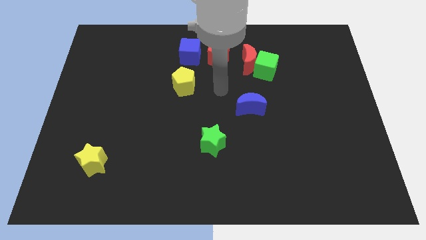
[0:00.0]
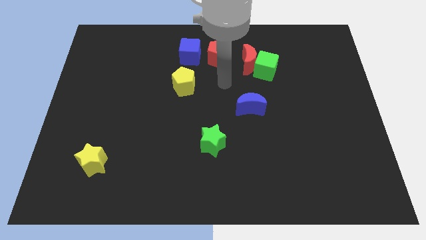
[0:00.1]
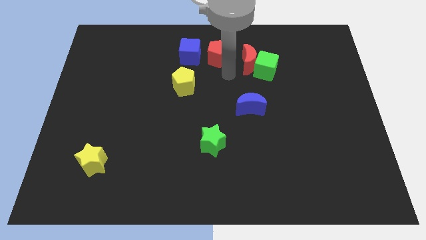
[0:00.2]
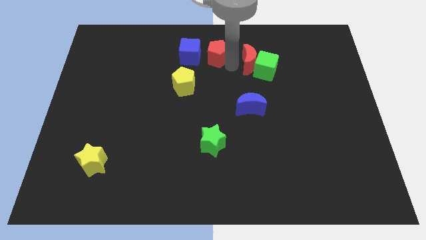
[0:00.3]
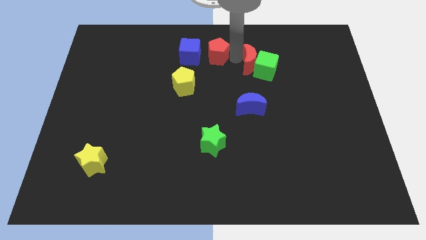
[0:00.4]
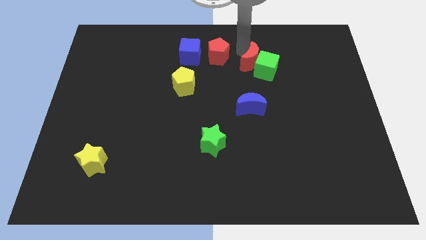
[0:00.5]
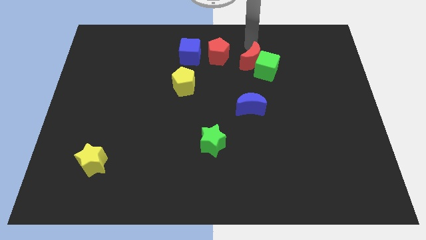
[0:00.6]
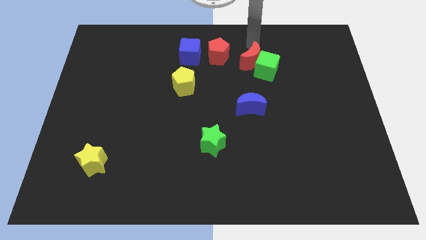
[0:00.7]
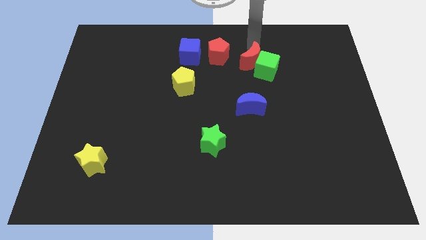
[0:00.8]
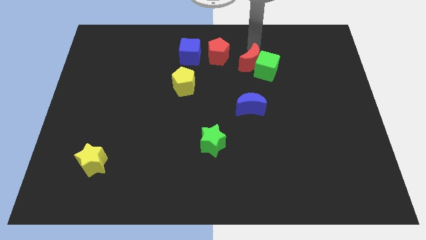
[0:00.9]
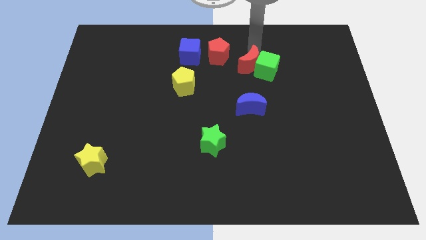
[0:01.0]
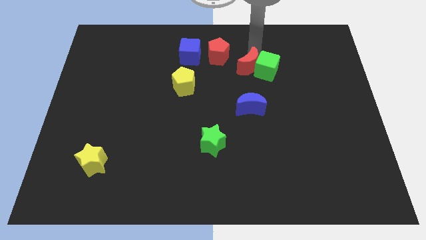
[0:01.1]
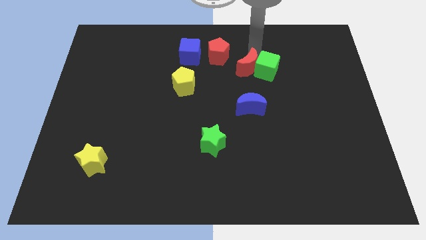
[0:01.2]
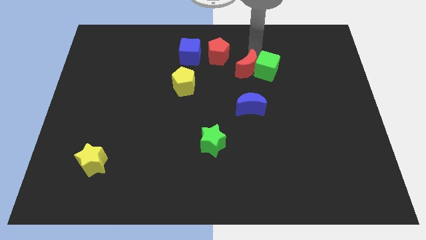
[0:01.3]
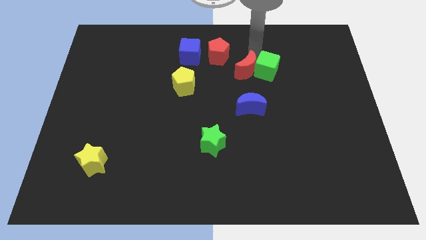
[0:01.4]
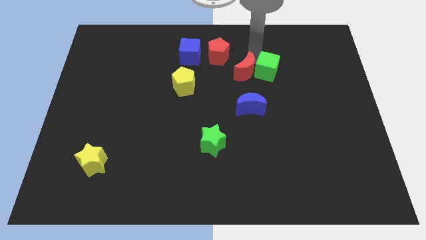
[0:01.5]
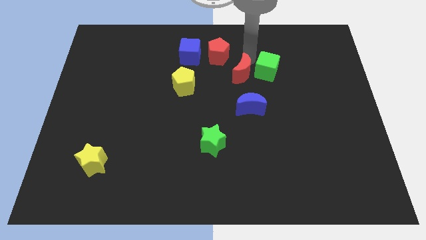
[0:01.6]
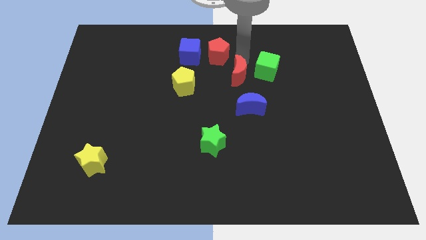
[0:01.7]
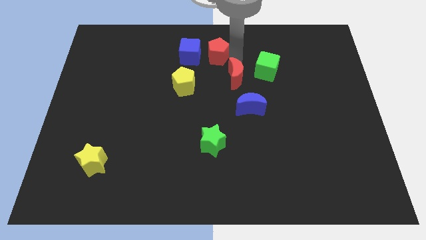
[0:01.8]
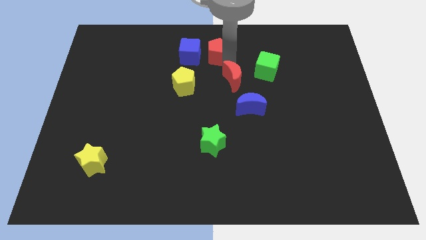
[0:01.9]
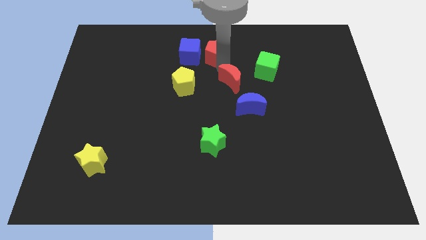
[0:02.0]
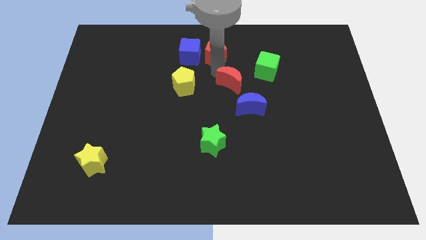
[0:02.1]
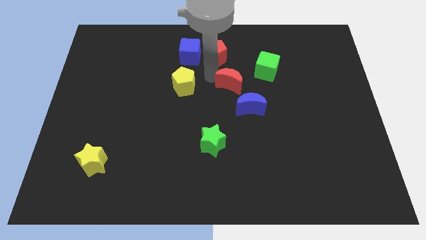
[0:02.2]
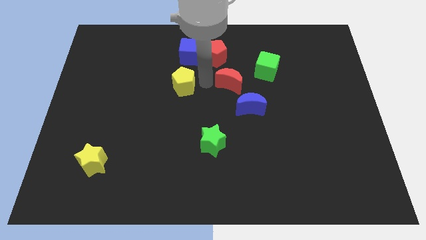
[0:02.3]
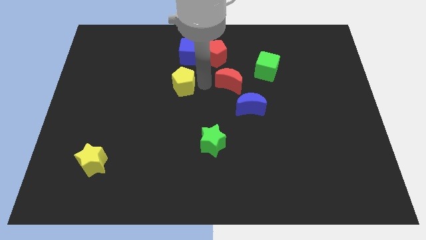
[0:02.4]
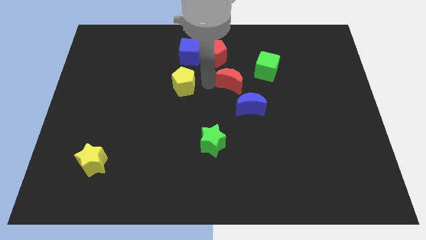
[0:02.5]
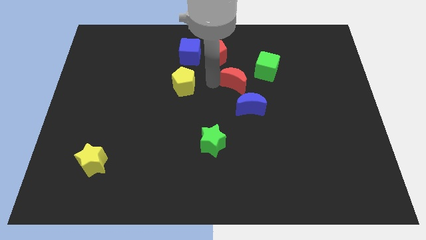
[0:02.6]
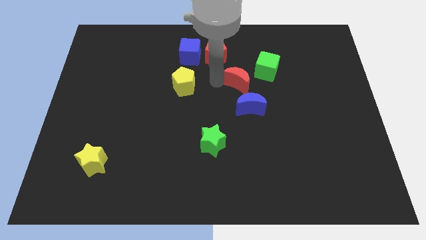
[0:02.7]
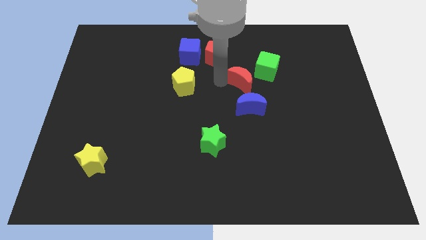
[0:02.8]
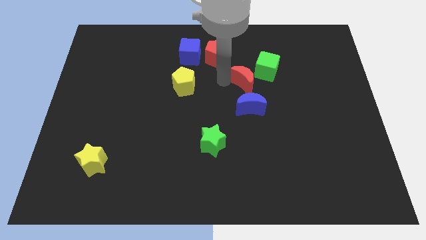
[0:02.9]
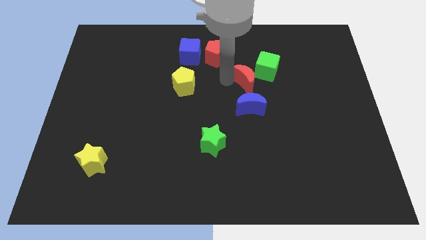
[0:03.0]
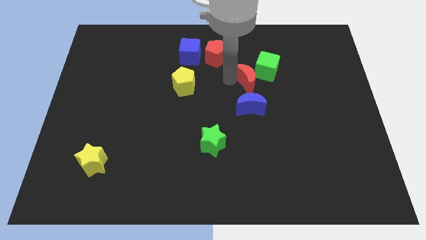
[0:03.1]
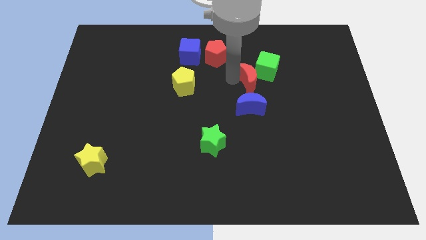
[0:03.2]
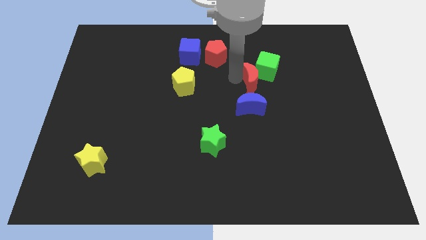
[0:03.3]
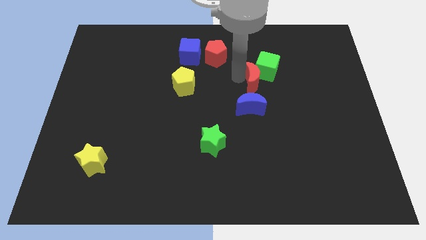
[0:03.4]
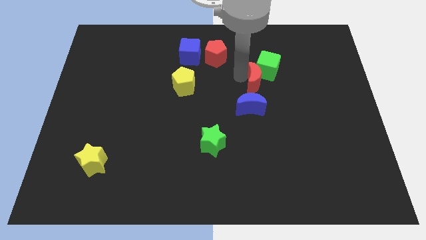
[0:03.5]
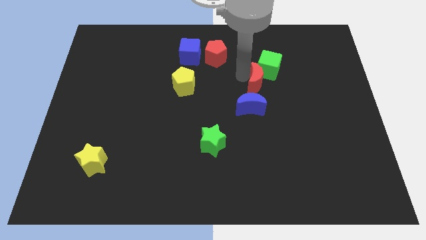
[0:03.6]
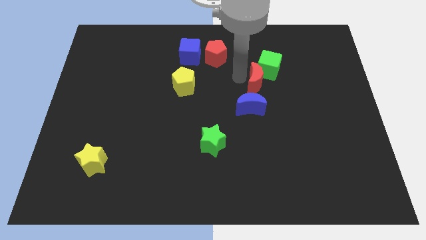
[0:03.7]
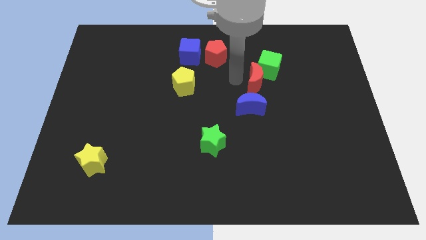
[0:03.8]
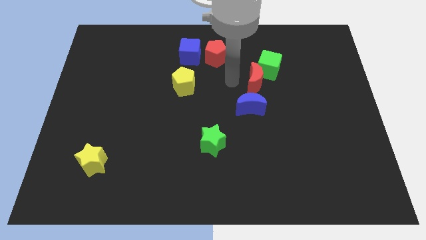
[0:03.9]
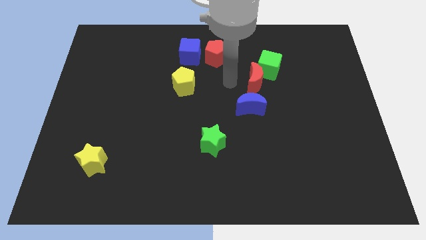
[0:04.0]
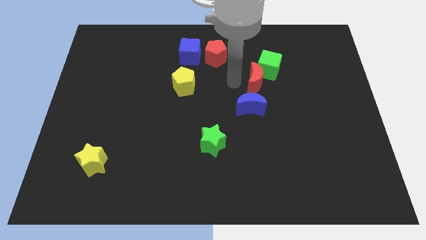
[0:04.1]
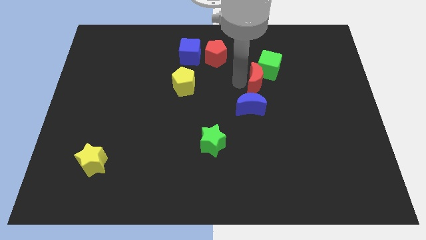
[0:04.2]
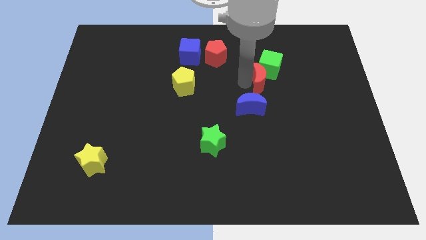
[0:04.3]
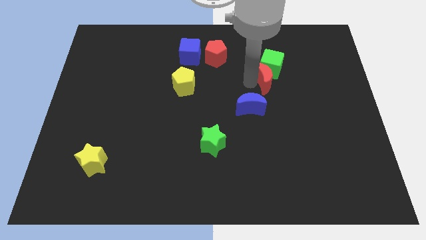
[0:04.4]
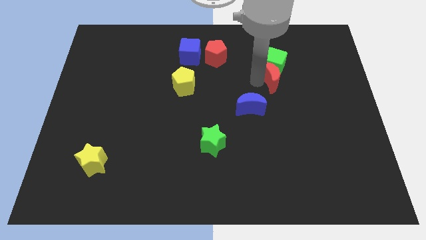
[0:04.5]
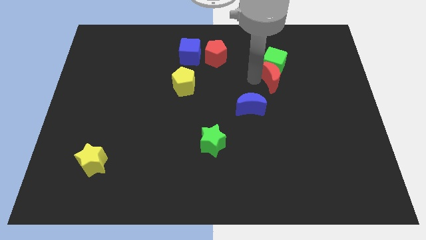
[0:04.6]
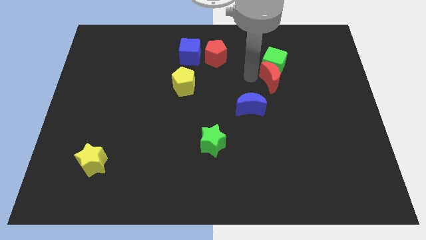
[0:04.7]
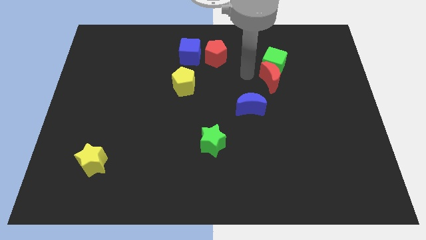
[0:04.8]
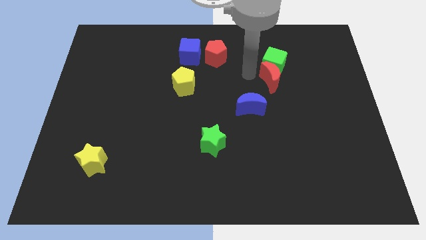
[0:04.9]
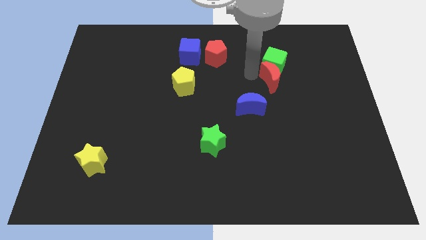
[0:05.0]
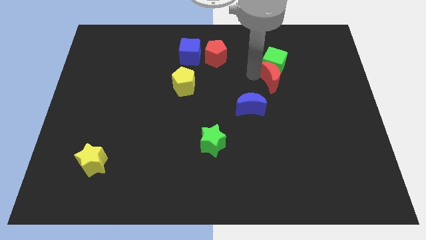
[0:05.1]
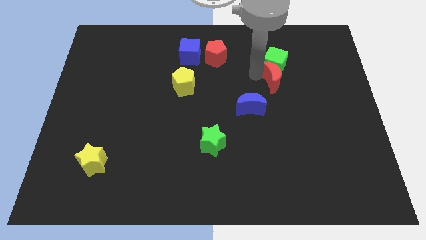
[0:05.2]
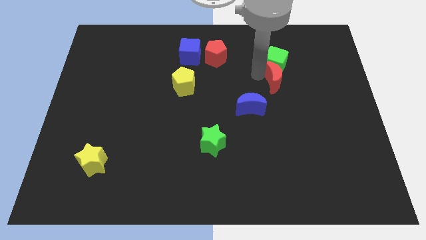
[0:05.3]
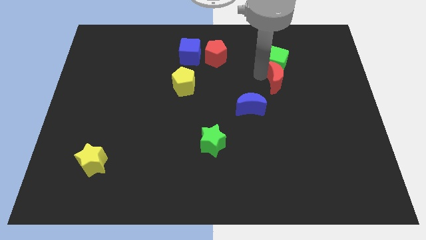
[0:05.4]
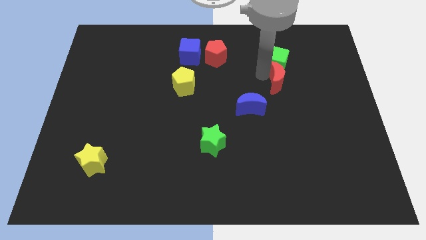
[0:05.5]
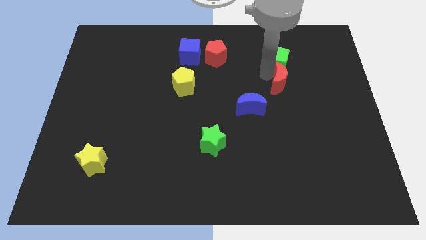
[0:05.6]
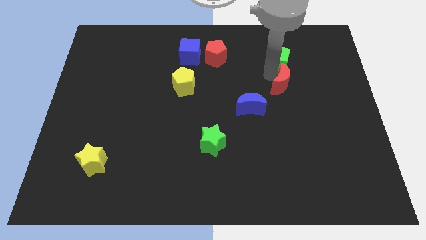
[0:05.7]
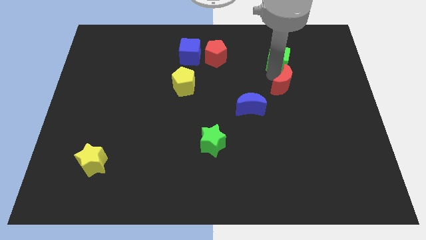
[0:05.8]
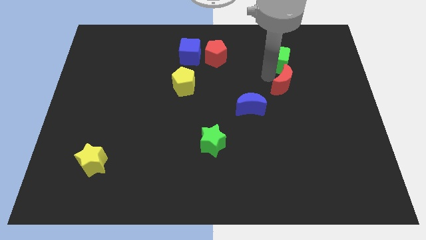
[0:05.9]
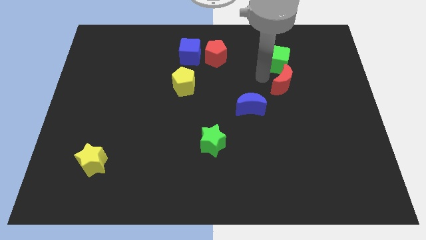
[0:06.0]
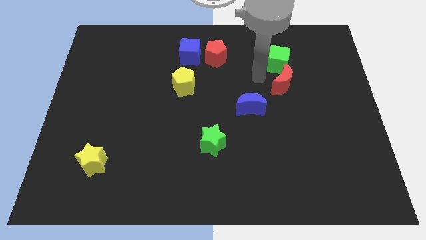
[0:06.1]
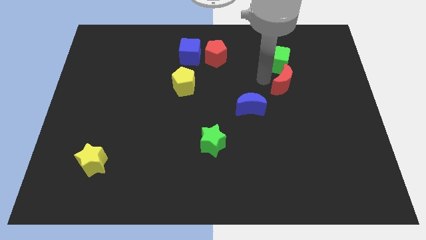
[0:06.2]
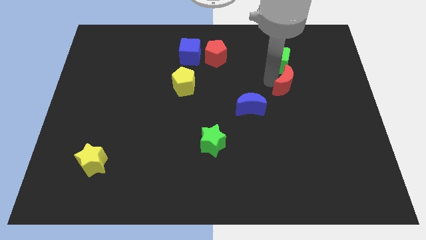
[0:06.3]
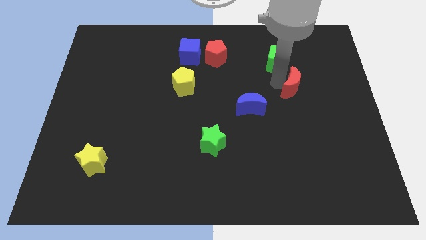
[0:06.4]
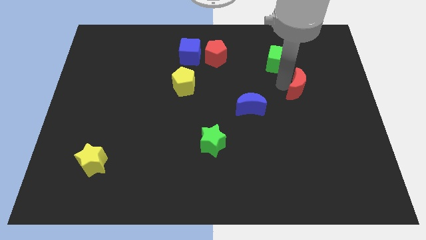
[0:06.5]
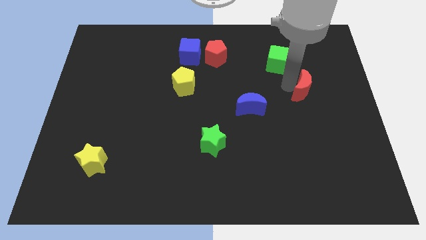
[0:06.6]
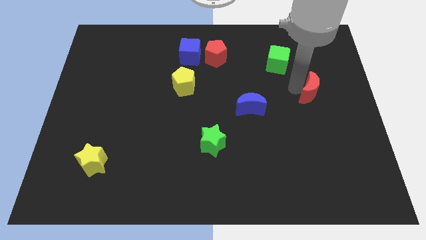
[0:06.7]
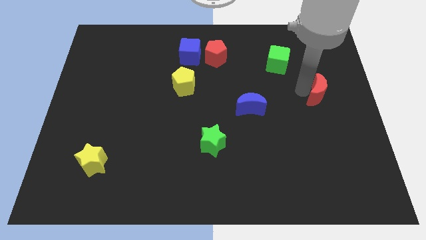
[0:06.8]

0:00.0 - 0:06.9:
move the red moon to the right side of the board
